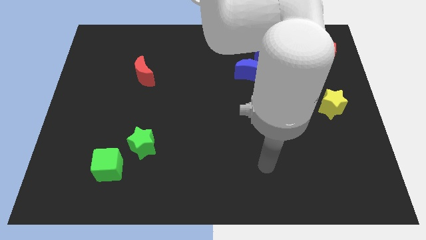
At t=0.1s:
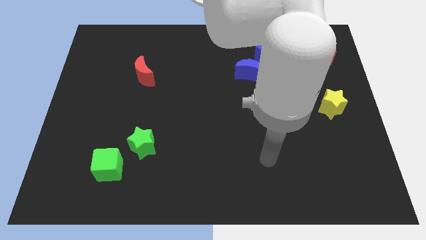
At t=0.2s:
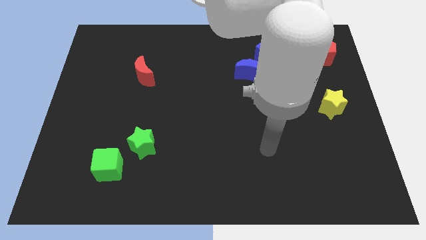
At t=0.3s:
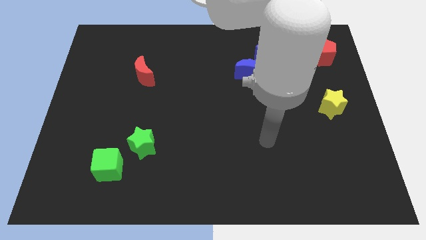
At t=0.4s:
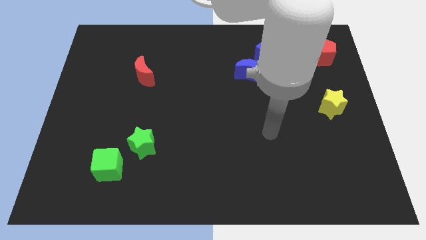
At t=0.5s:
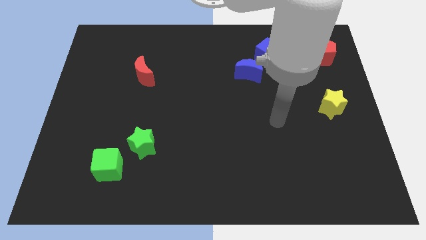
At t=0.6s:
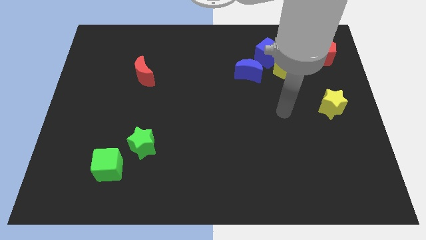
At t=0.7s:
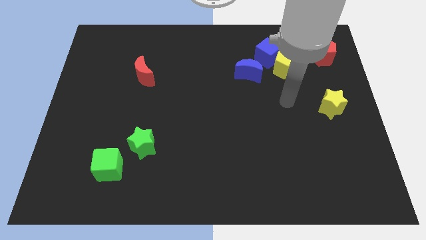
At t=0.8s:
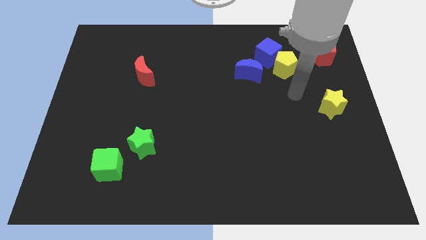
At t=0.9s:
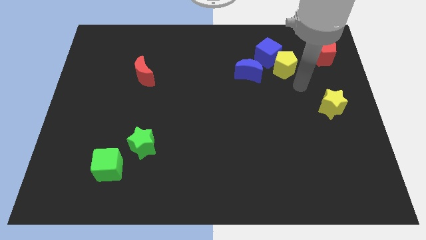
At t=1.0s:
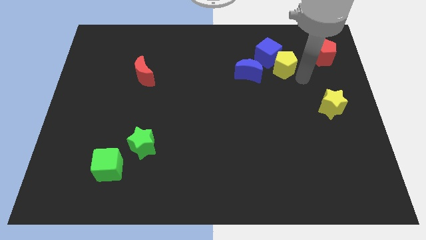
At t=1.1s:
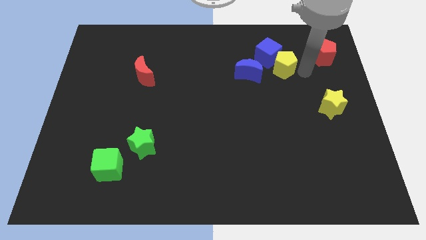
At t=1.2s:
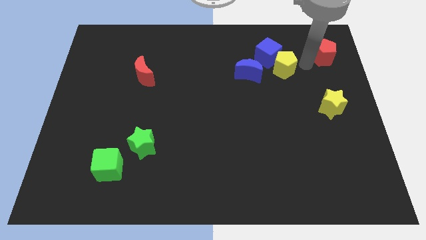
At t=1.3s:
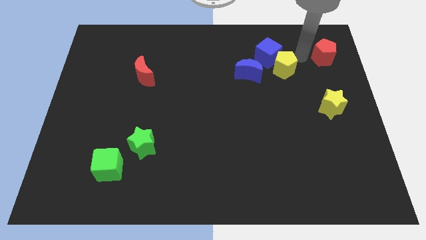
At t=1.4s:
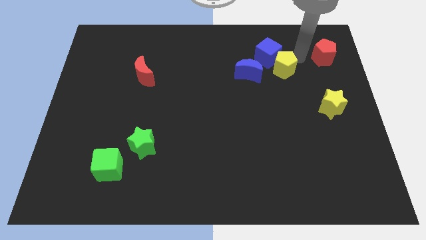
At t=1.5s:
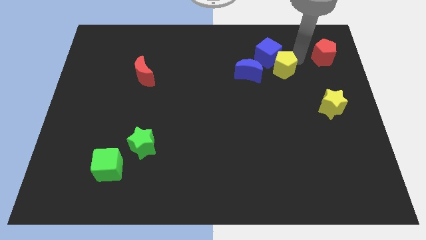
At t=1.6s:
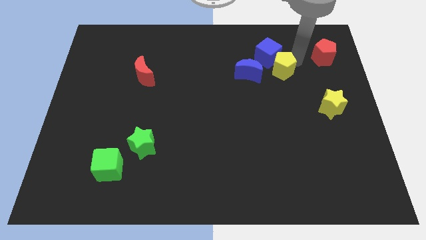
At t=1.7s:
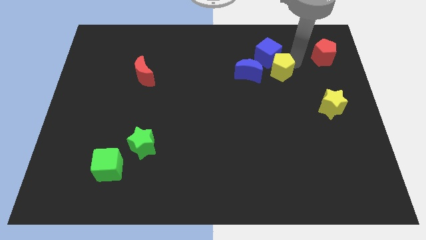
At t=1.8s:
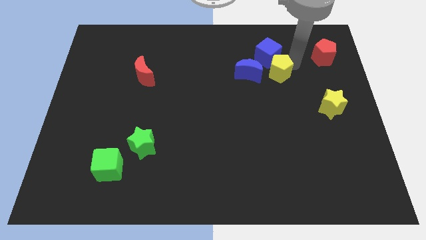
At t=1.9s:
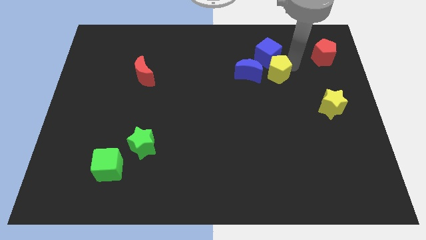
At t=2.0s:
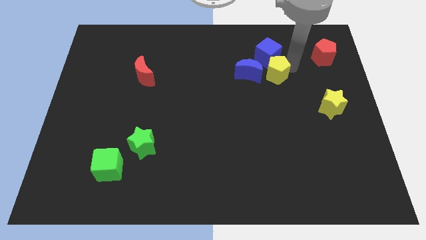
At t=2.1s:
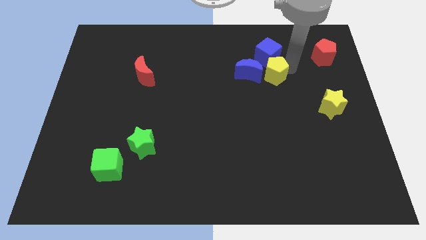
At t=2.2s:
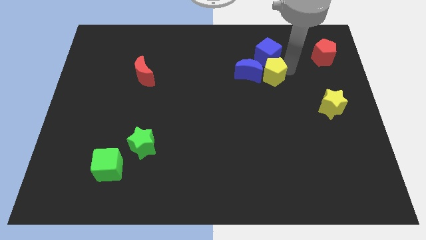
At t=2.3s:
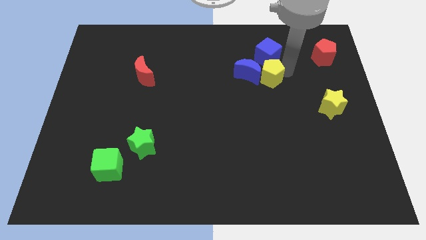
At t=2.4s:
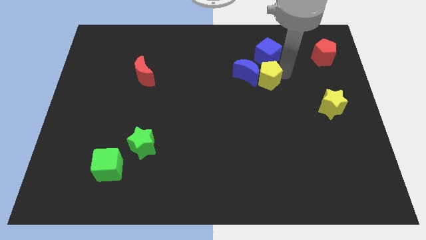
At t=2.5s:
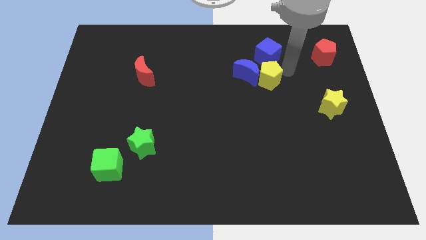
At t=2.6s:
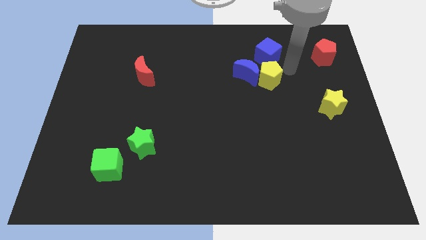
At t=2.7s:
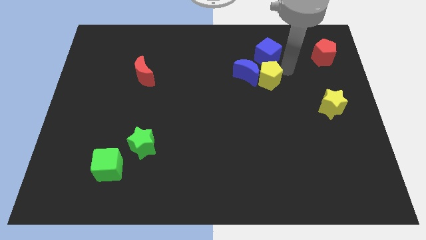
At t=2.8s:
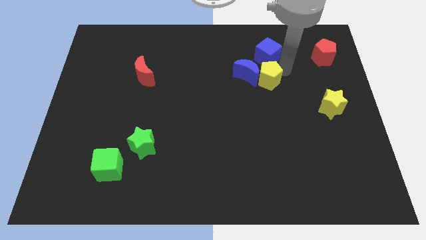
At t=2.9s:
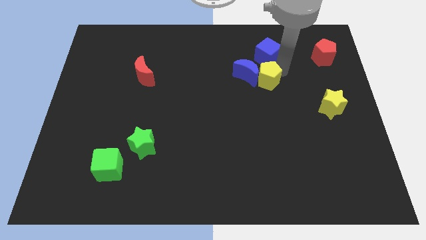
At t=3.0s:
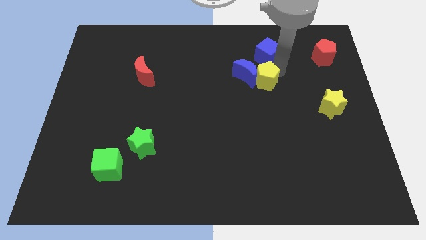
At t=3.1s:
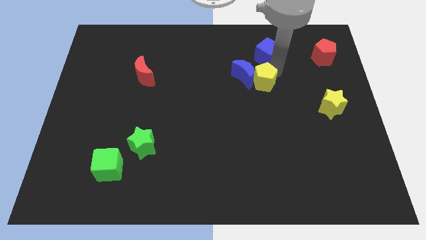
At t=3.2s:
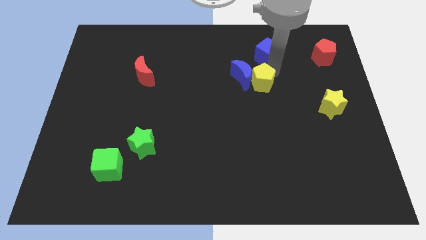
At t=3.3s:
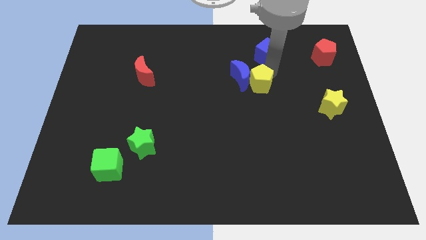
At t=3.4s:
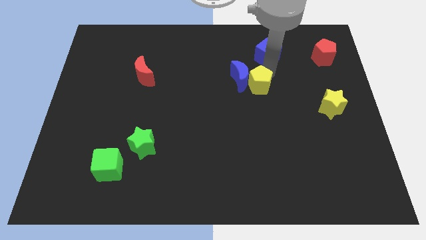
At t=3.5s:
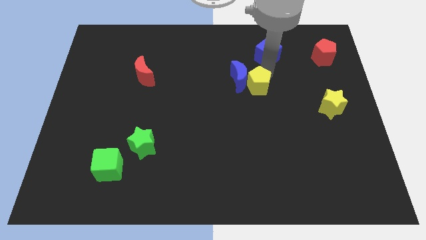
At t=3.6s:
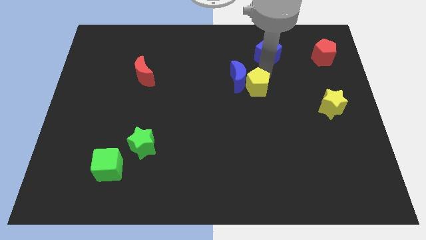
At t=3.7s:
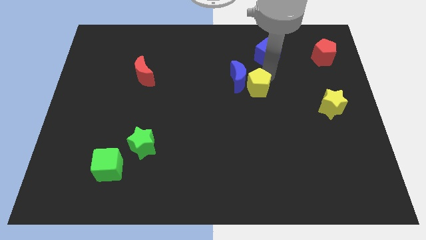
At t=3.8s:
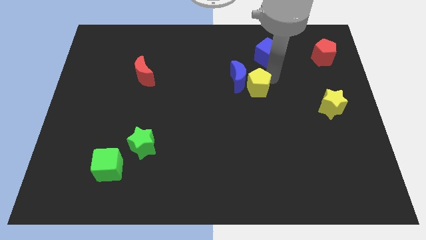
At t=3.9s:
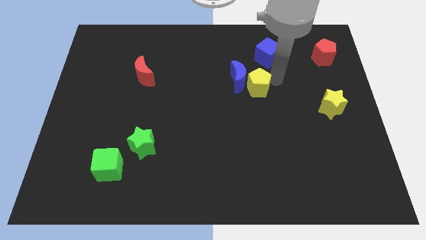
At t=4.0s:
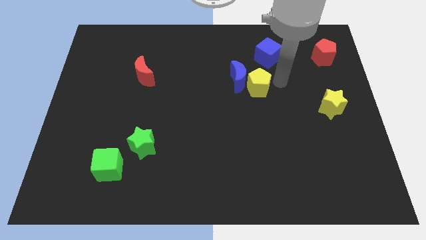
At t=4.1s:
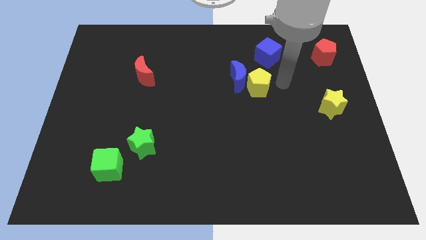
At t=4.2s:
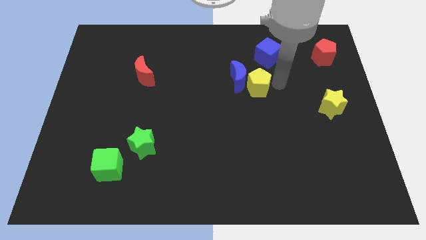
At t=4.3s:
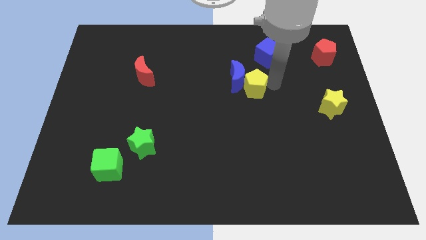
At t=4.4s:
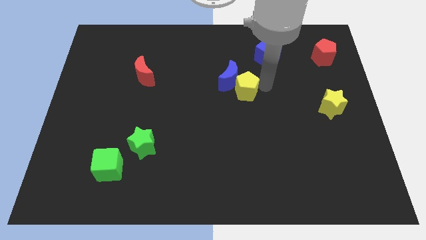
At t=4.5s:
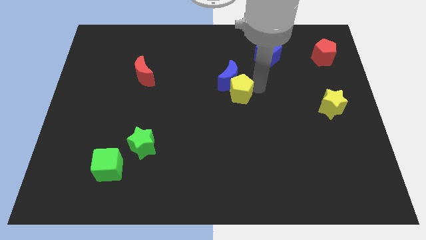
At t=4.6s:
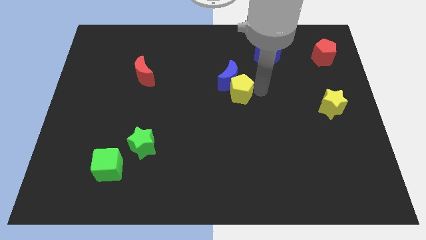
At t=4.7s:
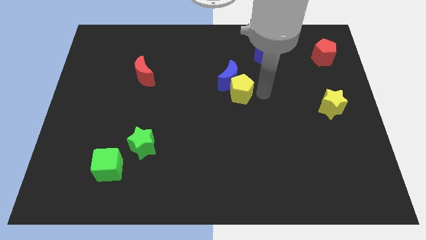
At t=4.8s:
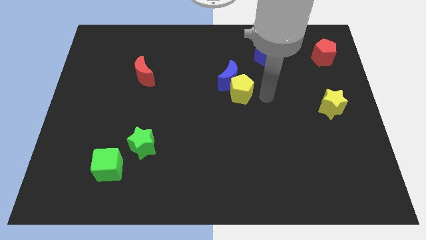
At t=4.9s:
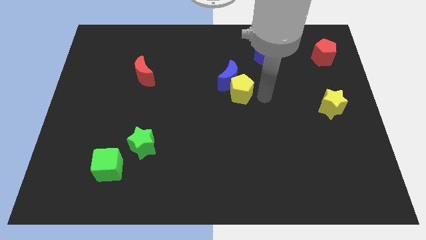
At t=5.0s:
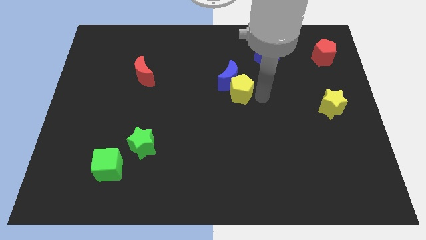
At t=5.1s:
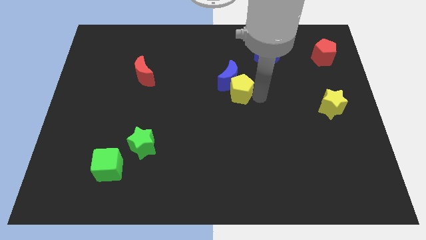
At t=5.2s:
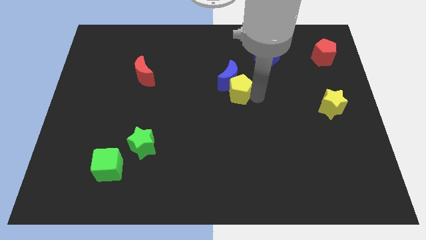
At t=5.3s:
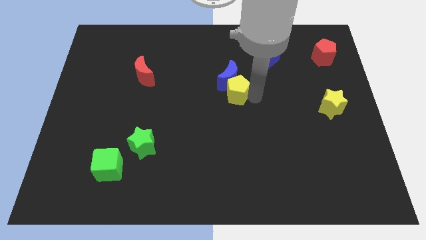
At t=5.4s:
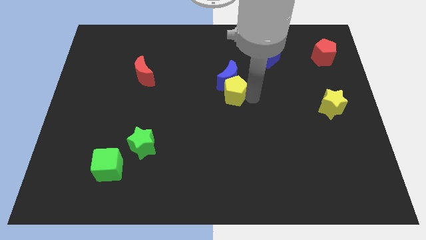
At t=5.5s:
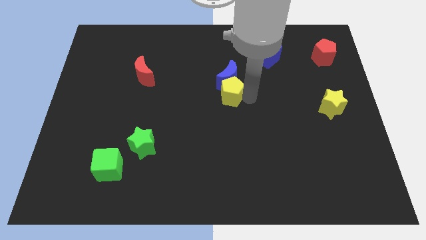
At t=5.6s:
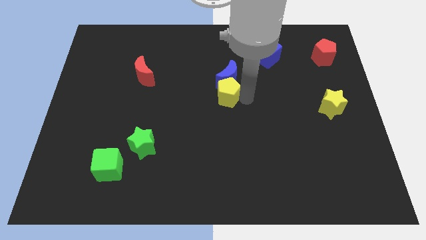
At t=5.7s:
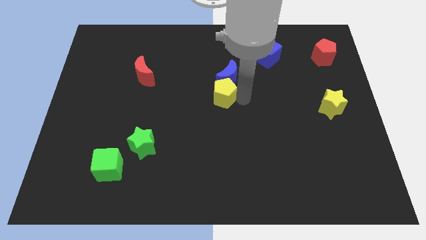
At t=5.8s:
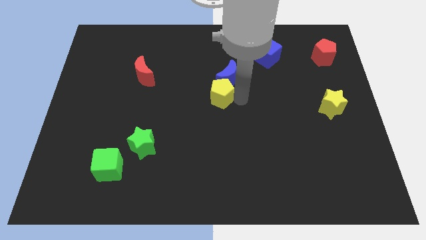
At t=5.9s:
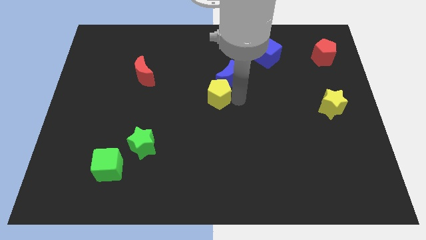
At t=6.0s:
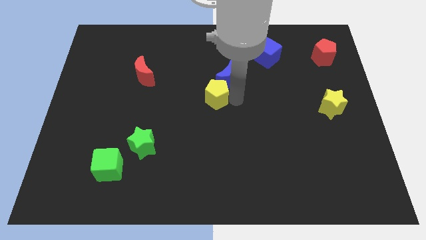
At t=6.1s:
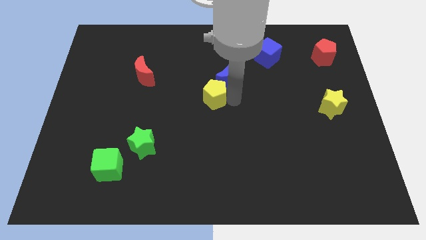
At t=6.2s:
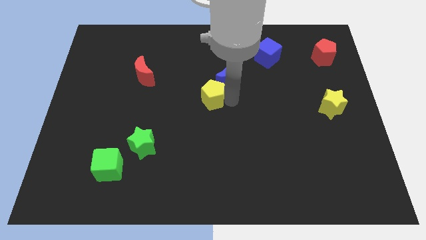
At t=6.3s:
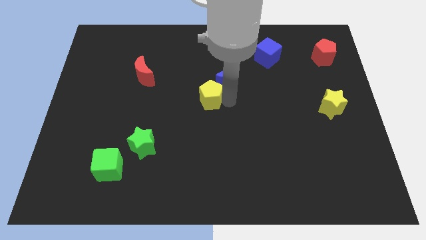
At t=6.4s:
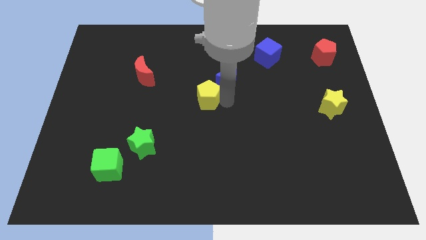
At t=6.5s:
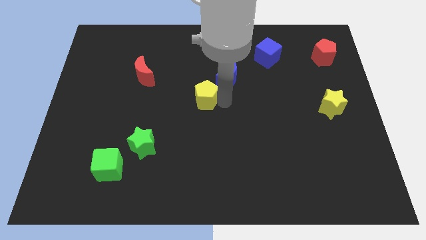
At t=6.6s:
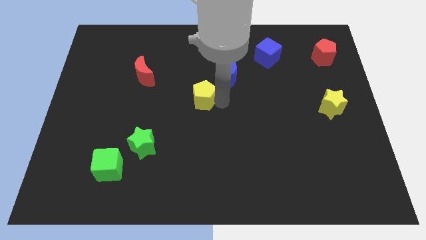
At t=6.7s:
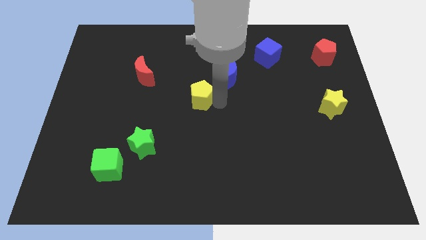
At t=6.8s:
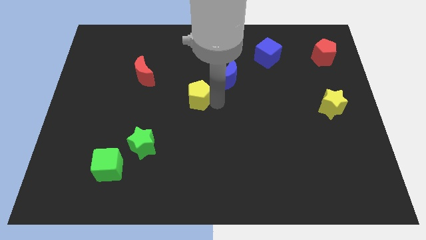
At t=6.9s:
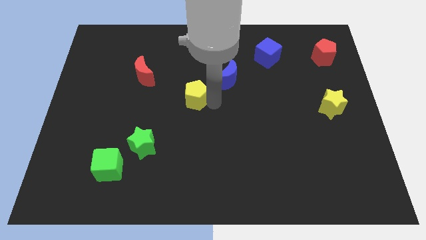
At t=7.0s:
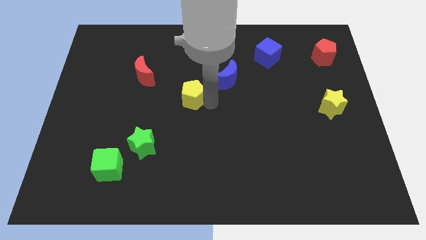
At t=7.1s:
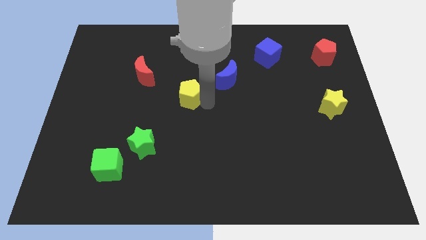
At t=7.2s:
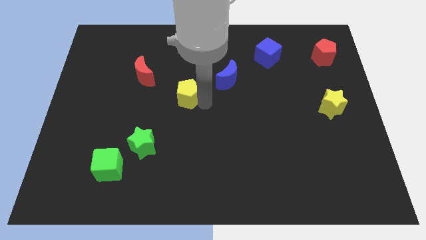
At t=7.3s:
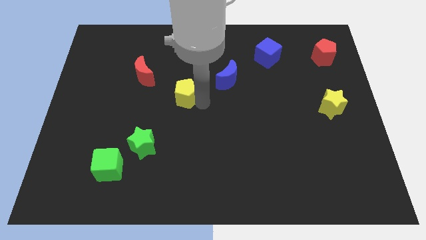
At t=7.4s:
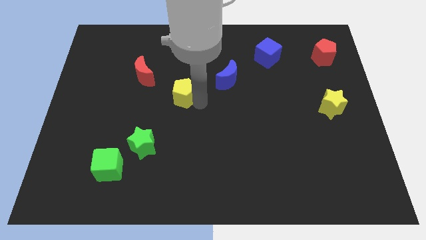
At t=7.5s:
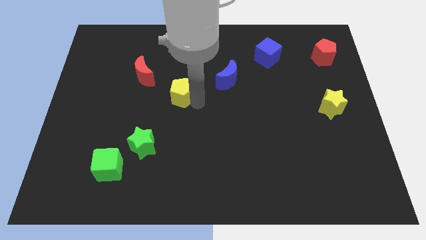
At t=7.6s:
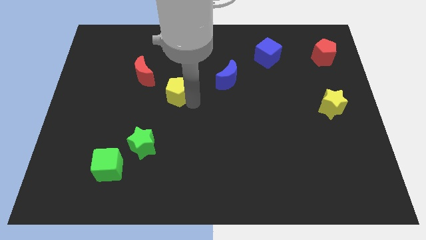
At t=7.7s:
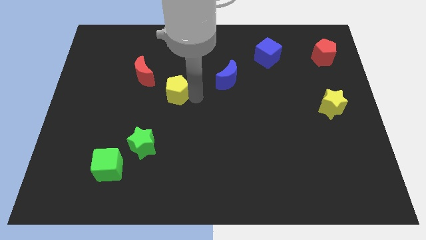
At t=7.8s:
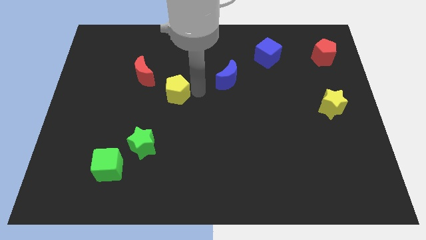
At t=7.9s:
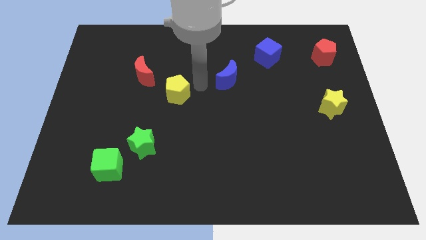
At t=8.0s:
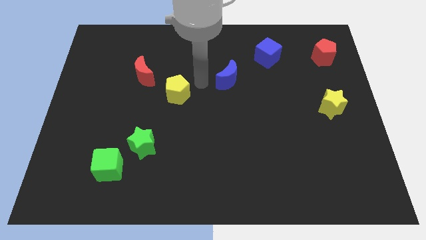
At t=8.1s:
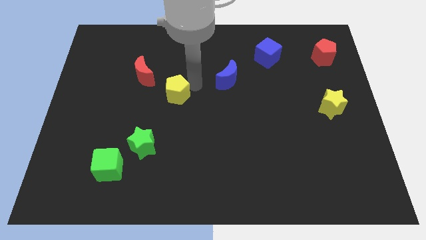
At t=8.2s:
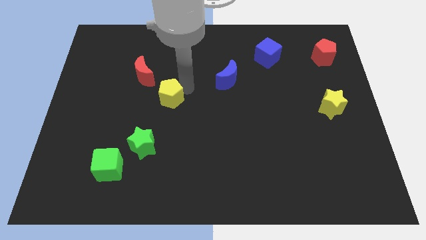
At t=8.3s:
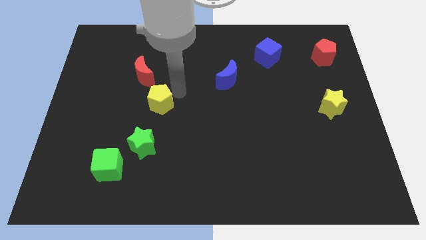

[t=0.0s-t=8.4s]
move the yellow pentagon to the bottom side of the red moon
